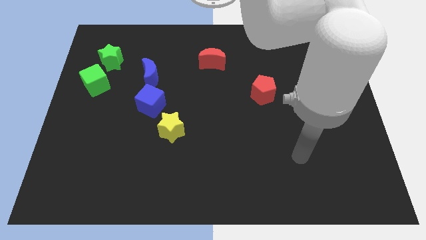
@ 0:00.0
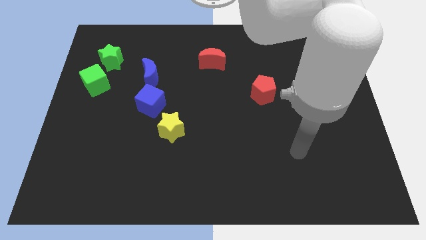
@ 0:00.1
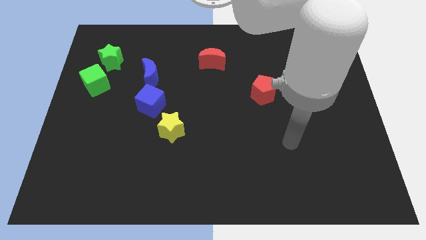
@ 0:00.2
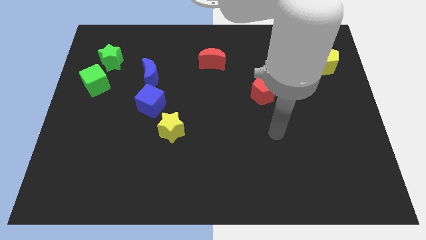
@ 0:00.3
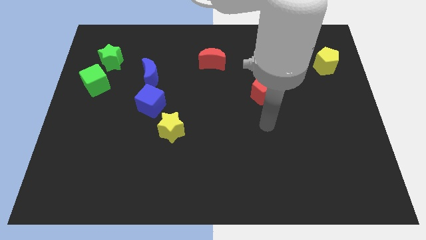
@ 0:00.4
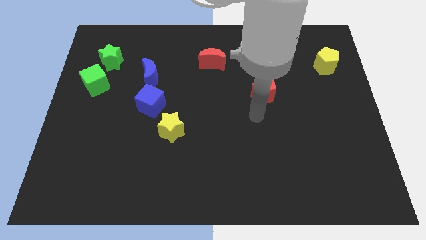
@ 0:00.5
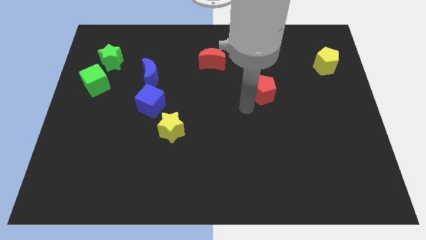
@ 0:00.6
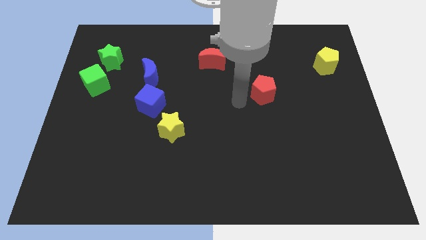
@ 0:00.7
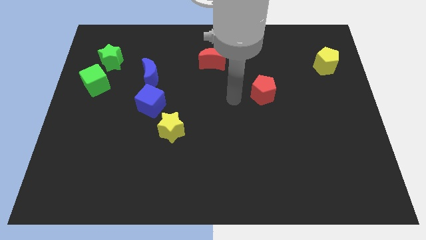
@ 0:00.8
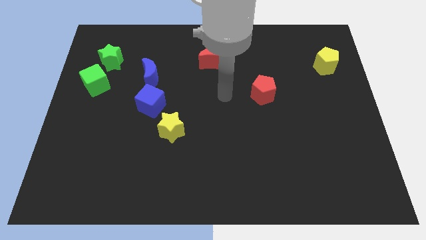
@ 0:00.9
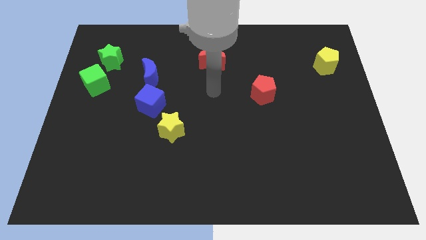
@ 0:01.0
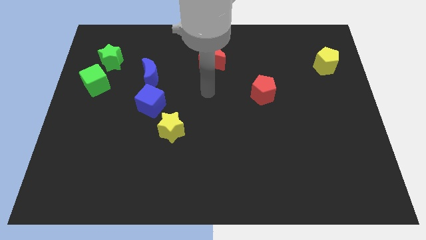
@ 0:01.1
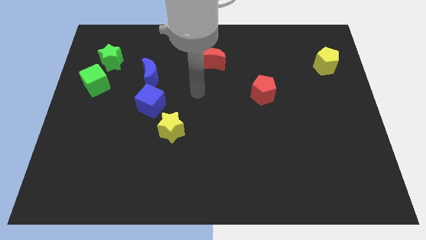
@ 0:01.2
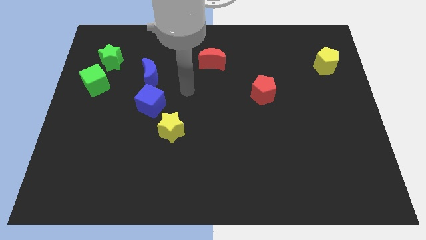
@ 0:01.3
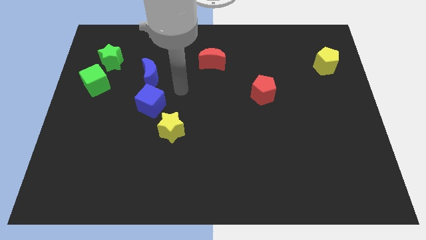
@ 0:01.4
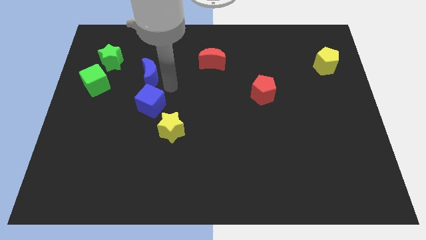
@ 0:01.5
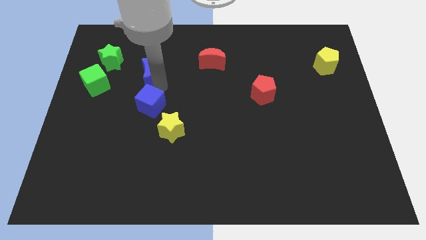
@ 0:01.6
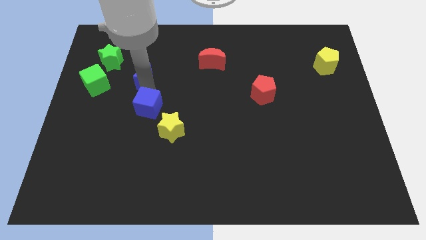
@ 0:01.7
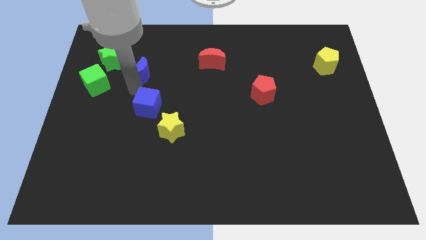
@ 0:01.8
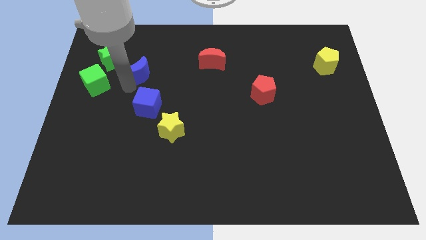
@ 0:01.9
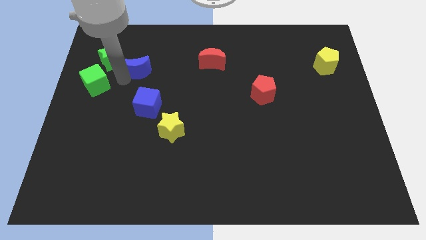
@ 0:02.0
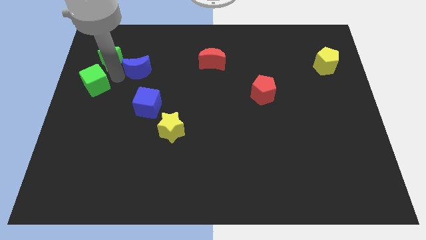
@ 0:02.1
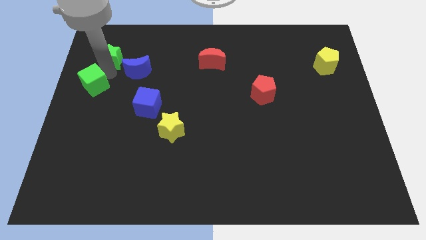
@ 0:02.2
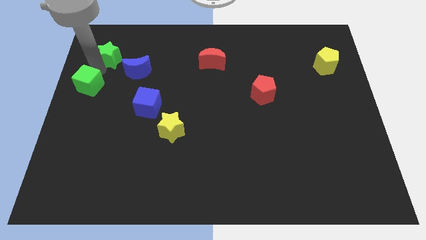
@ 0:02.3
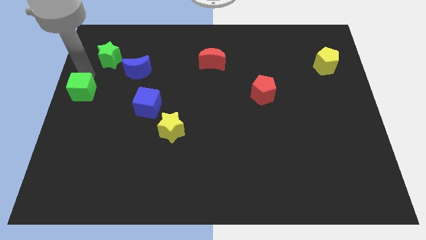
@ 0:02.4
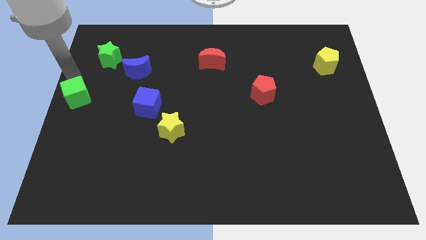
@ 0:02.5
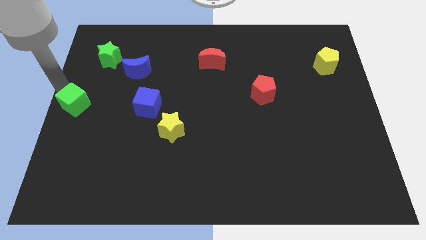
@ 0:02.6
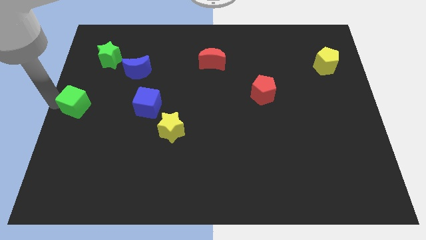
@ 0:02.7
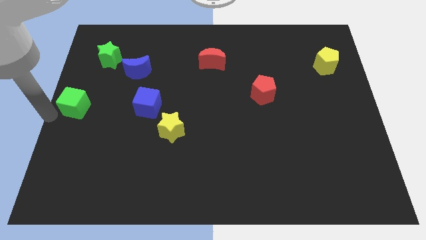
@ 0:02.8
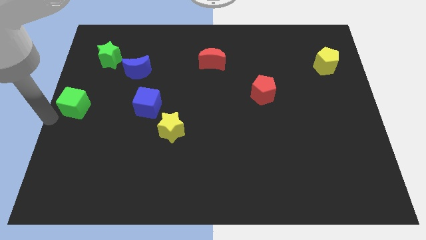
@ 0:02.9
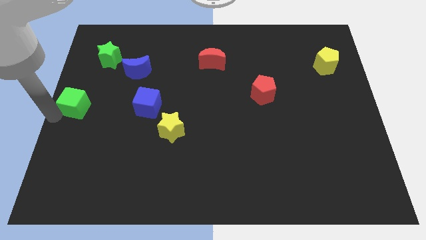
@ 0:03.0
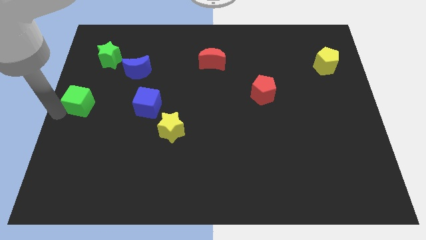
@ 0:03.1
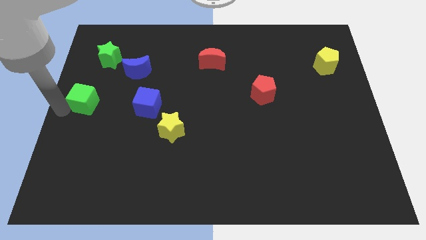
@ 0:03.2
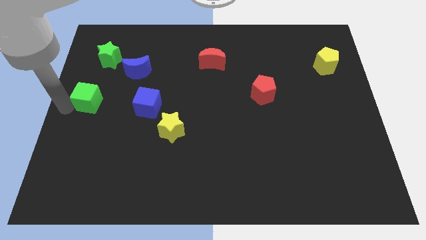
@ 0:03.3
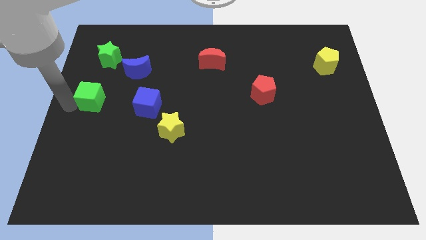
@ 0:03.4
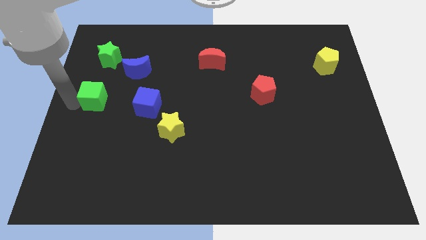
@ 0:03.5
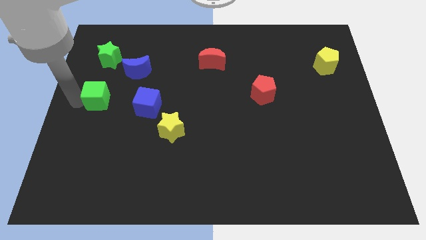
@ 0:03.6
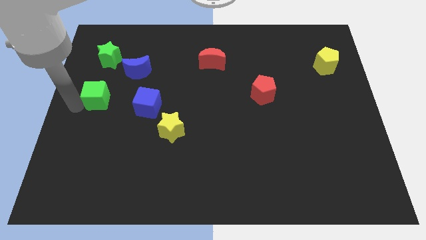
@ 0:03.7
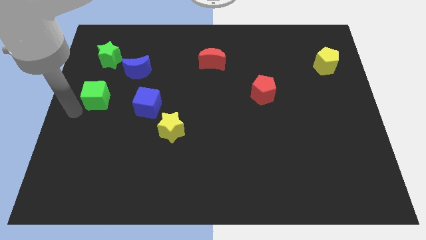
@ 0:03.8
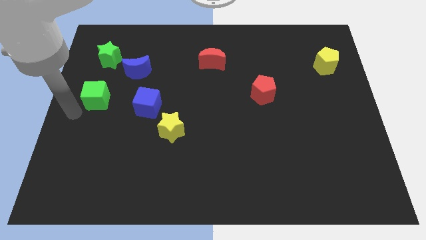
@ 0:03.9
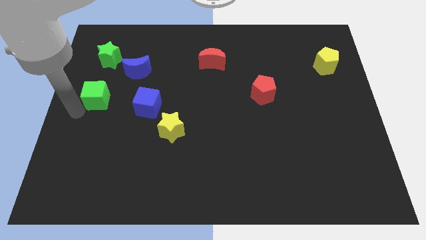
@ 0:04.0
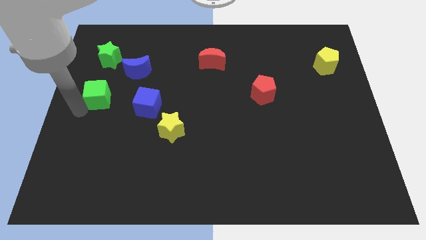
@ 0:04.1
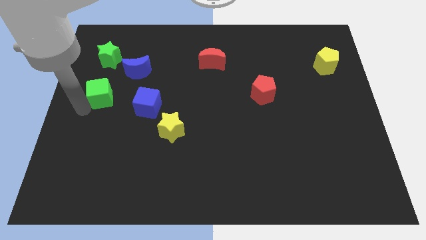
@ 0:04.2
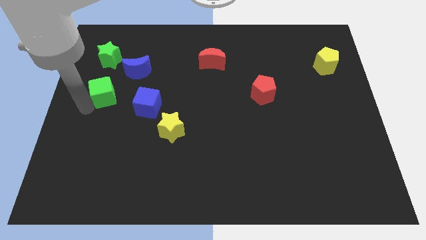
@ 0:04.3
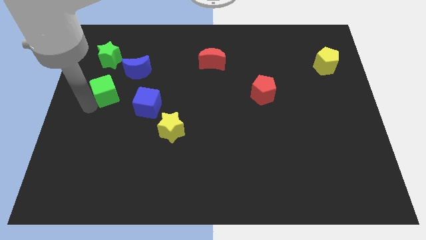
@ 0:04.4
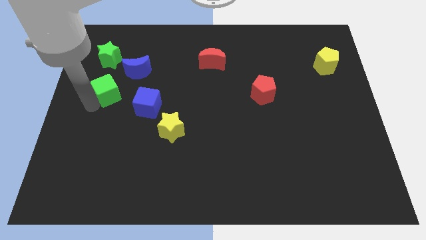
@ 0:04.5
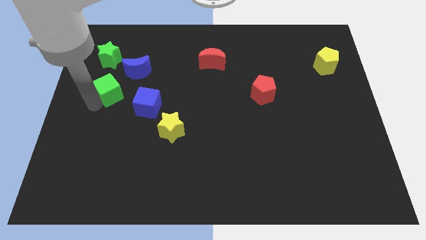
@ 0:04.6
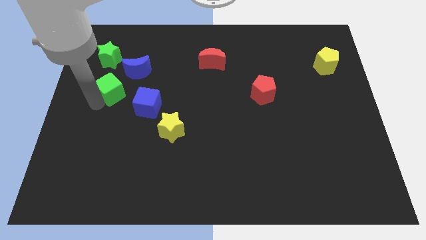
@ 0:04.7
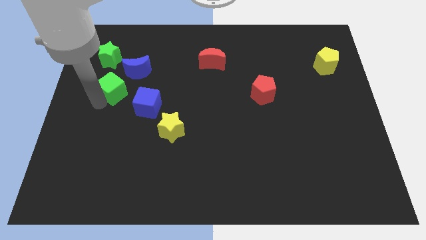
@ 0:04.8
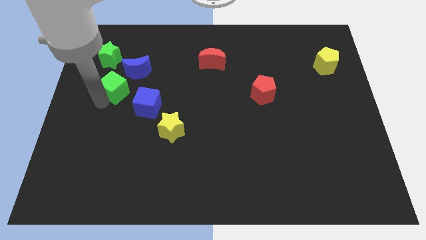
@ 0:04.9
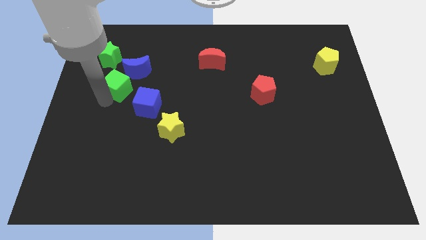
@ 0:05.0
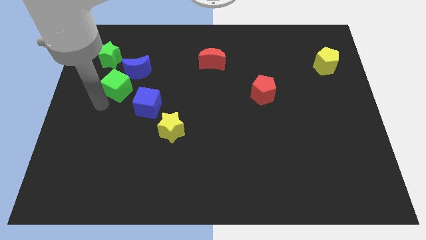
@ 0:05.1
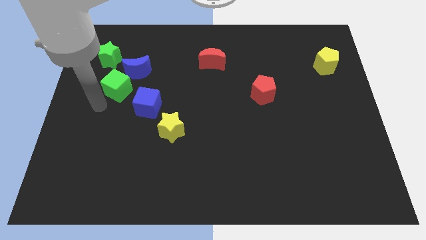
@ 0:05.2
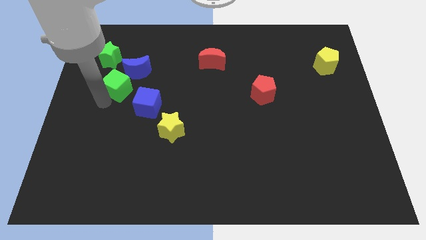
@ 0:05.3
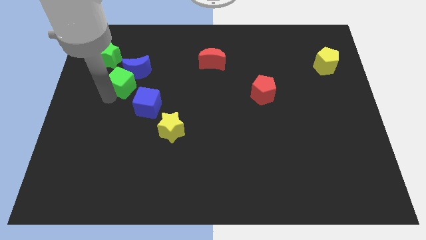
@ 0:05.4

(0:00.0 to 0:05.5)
put the green cube towards the blue moon

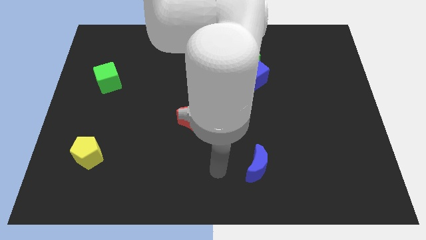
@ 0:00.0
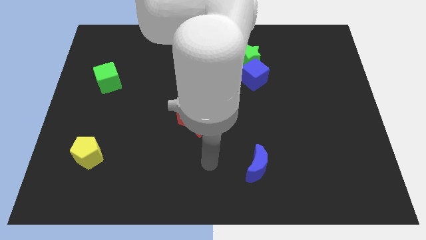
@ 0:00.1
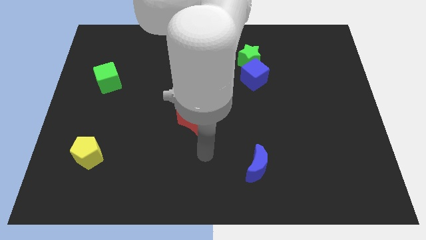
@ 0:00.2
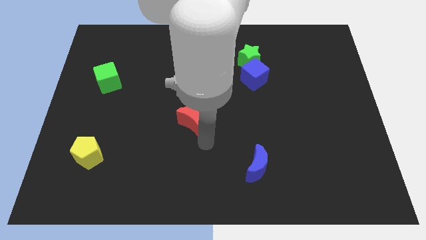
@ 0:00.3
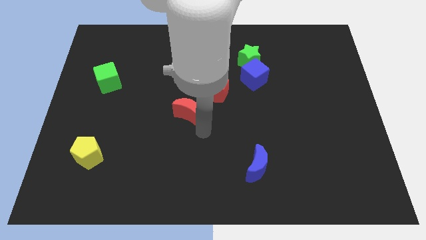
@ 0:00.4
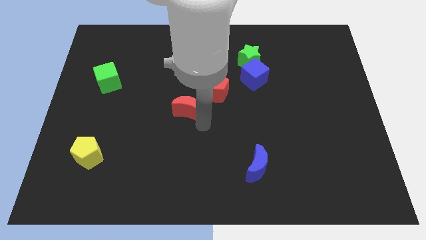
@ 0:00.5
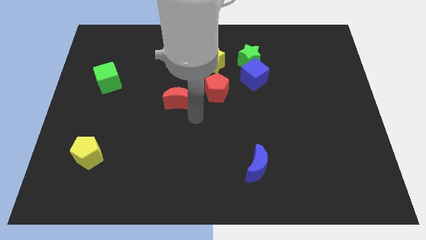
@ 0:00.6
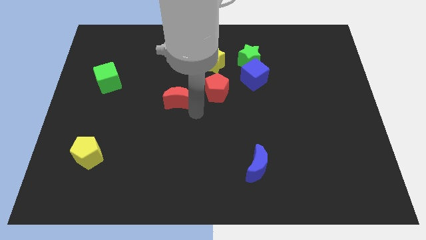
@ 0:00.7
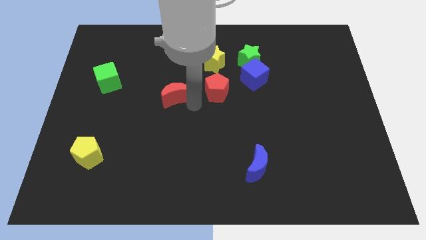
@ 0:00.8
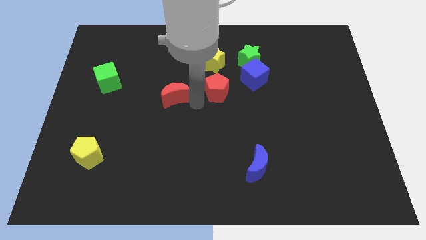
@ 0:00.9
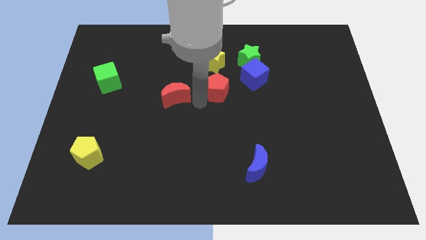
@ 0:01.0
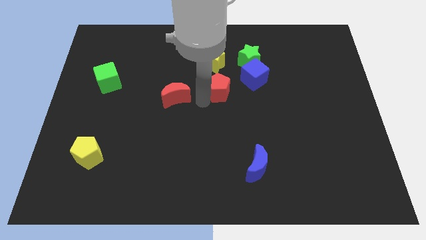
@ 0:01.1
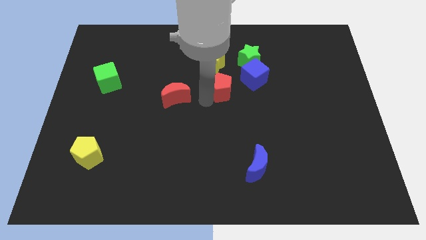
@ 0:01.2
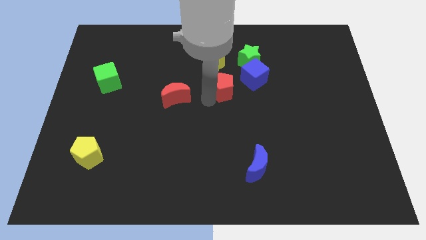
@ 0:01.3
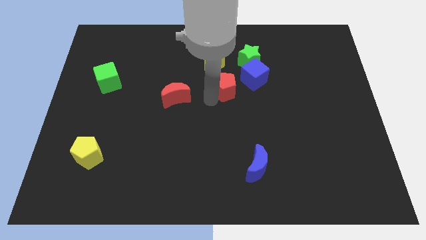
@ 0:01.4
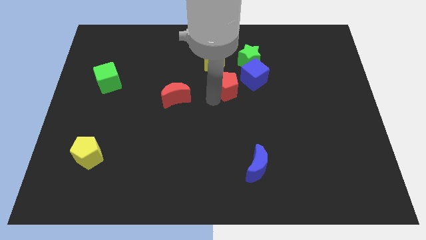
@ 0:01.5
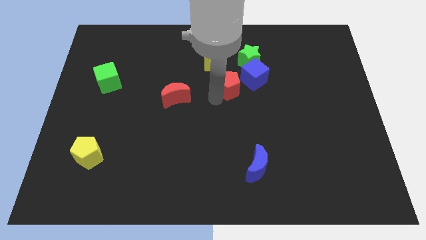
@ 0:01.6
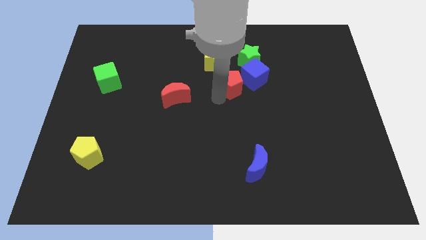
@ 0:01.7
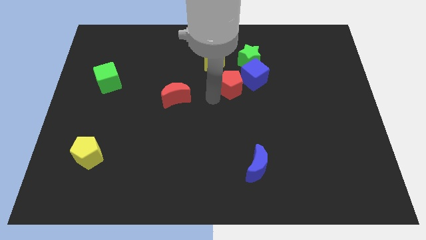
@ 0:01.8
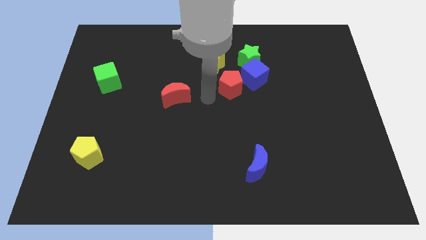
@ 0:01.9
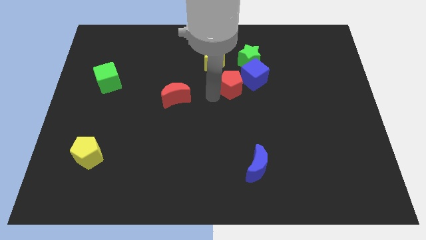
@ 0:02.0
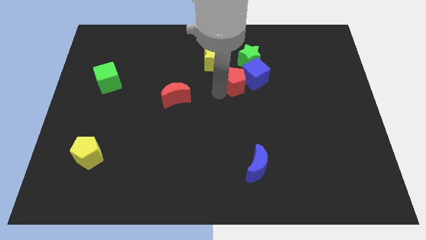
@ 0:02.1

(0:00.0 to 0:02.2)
push the red pentagon to the blue cube
